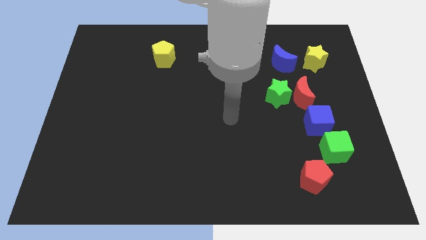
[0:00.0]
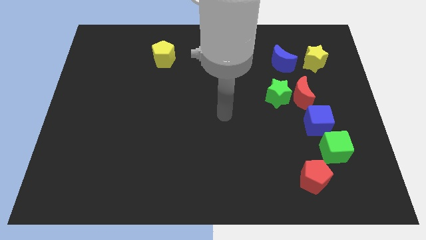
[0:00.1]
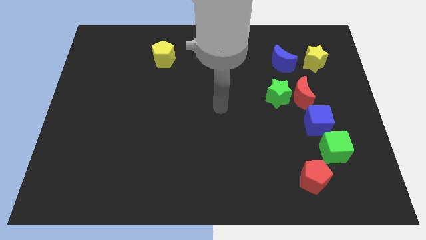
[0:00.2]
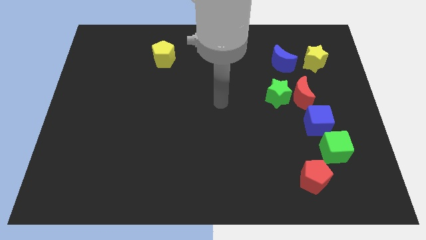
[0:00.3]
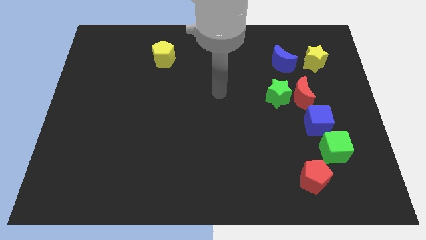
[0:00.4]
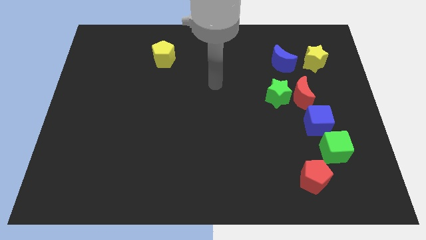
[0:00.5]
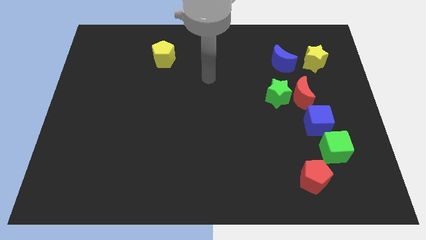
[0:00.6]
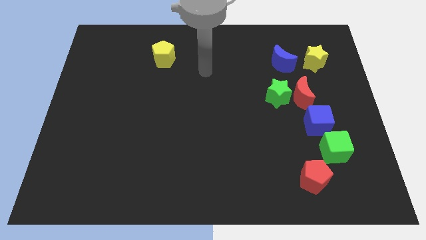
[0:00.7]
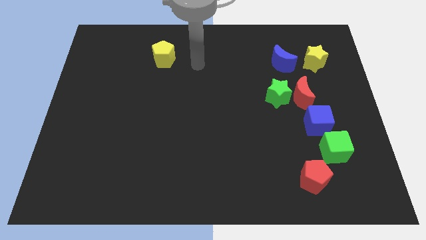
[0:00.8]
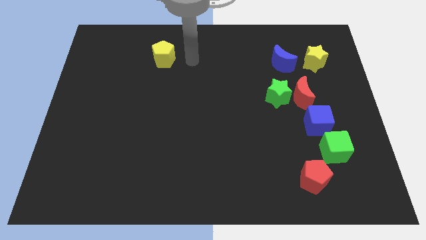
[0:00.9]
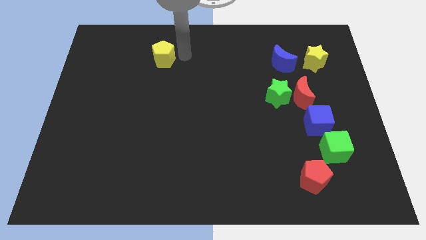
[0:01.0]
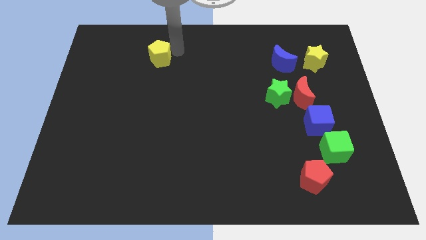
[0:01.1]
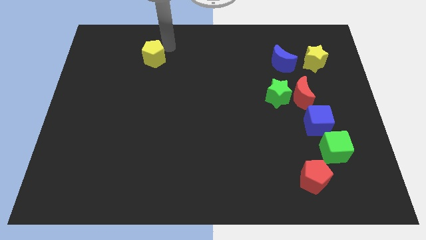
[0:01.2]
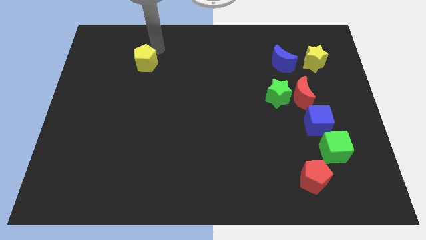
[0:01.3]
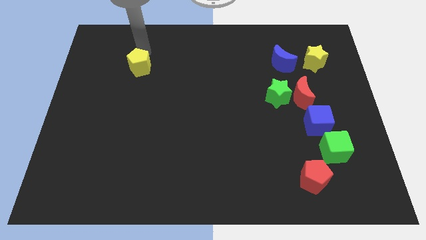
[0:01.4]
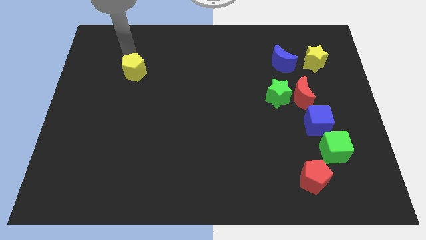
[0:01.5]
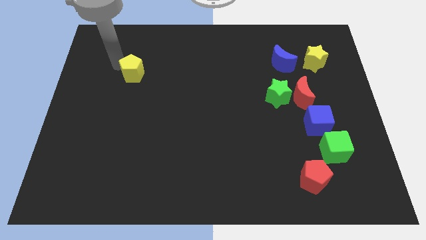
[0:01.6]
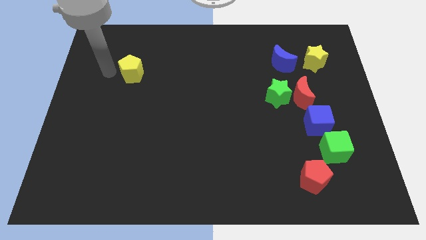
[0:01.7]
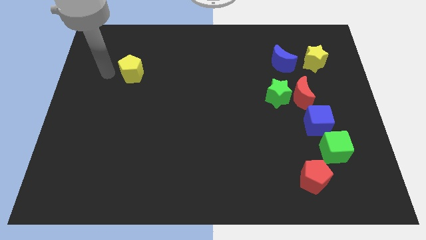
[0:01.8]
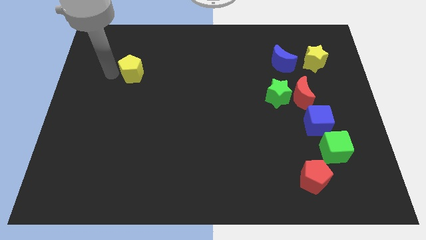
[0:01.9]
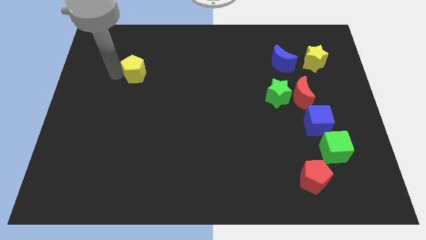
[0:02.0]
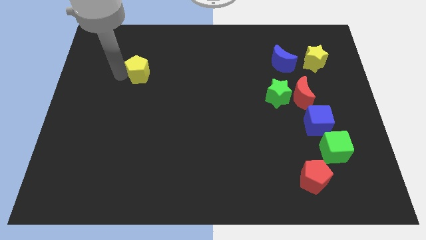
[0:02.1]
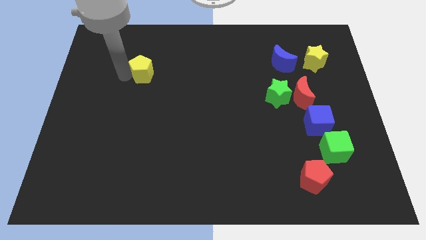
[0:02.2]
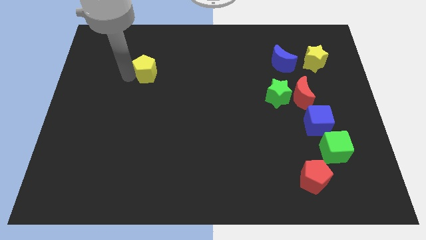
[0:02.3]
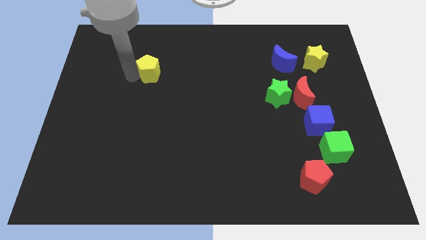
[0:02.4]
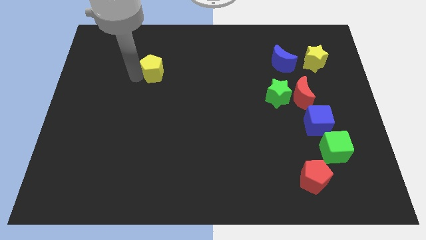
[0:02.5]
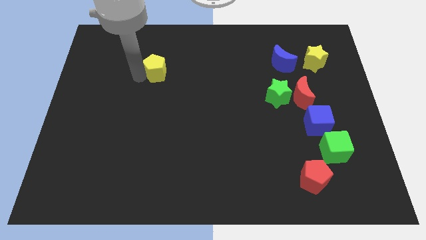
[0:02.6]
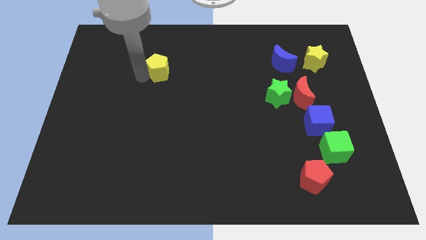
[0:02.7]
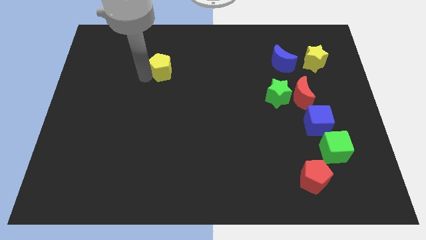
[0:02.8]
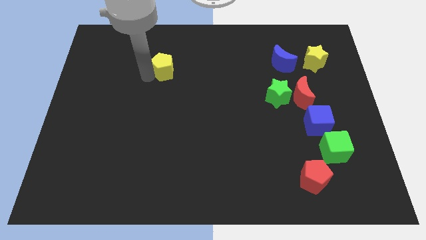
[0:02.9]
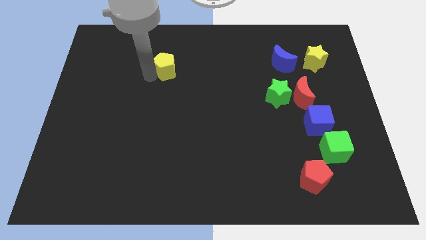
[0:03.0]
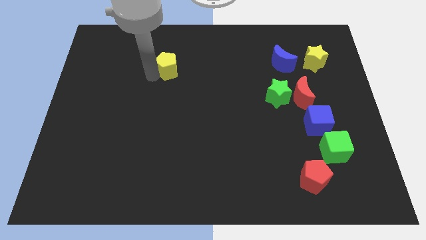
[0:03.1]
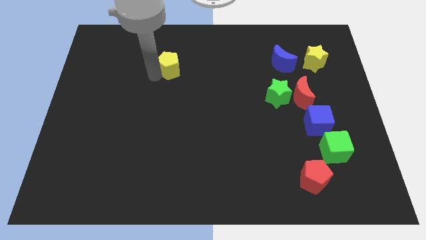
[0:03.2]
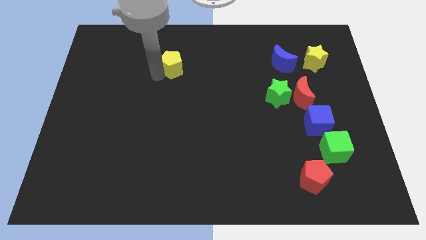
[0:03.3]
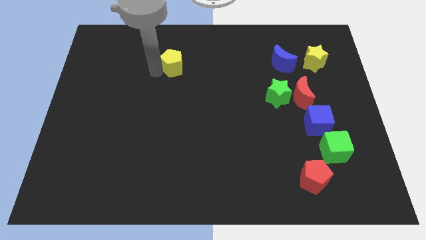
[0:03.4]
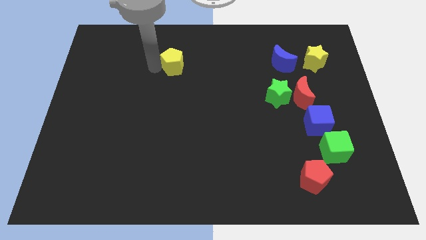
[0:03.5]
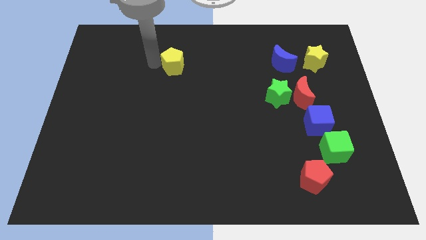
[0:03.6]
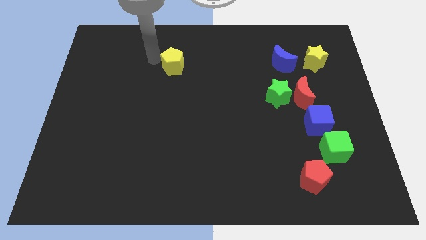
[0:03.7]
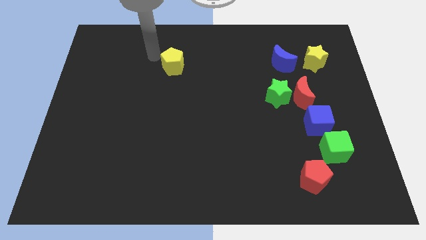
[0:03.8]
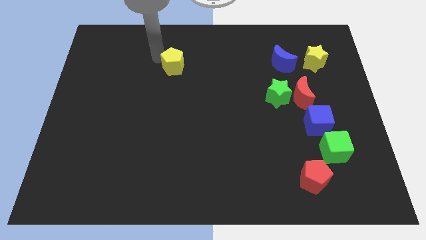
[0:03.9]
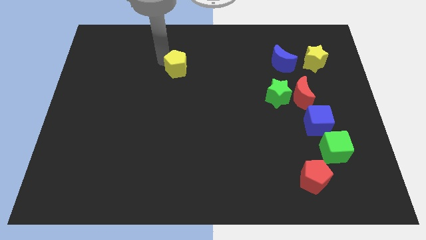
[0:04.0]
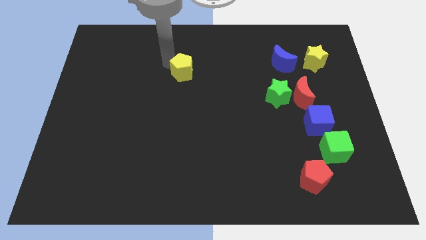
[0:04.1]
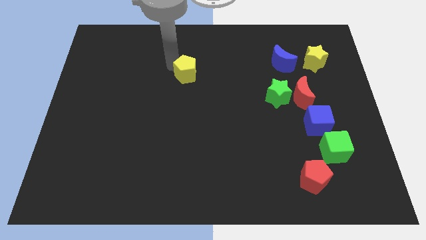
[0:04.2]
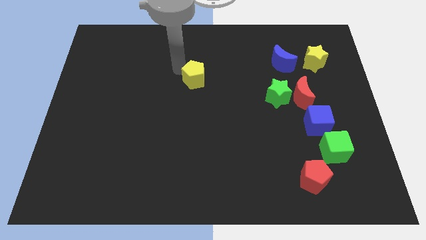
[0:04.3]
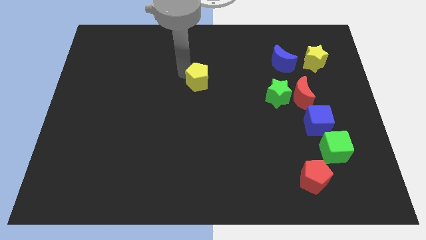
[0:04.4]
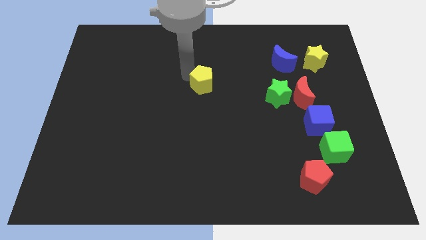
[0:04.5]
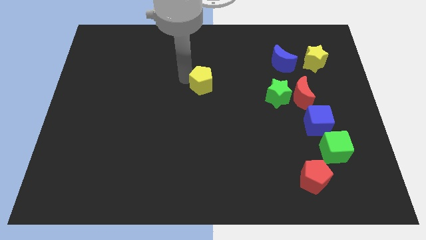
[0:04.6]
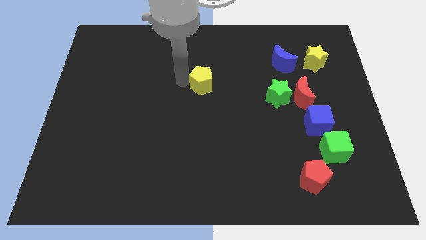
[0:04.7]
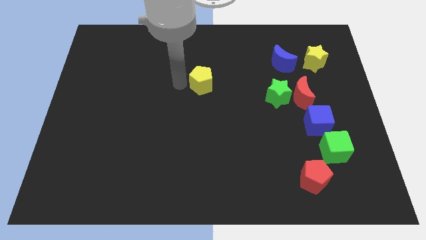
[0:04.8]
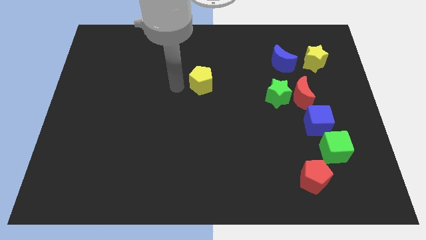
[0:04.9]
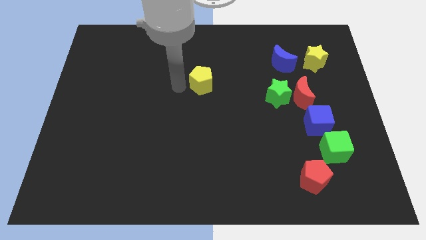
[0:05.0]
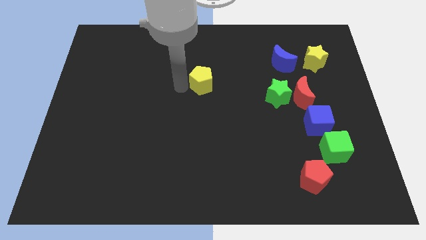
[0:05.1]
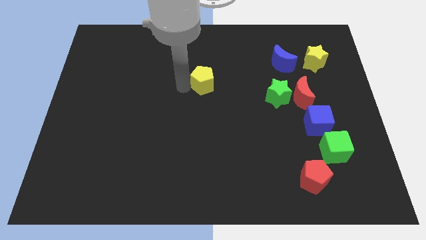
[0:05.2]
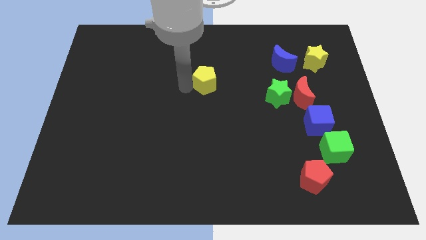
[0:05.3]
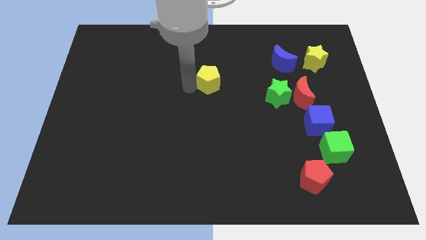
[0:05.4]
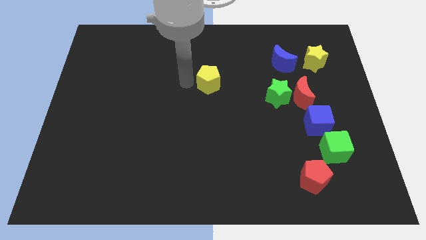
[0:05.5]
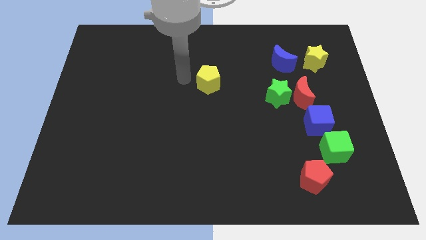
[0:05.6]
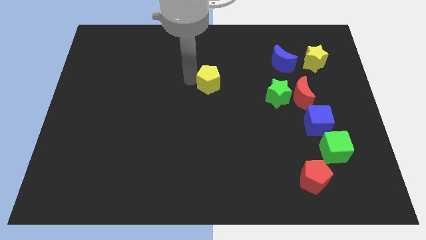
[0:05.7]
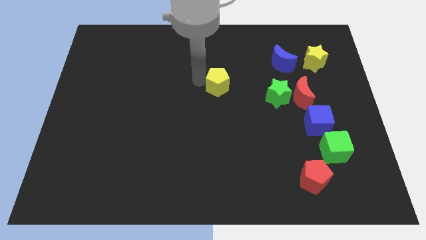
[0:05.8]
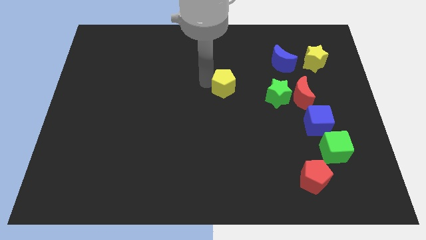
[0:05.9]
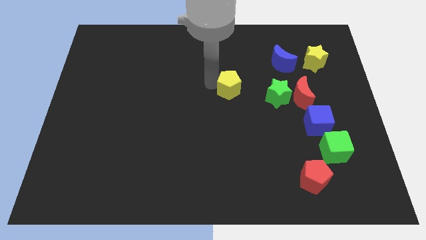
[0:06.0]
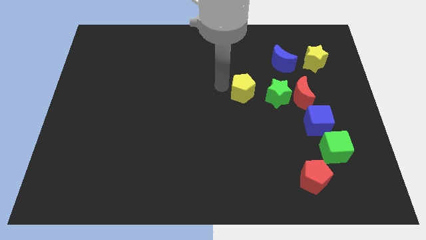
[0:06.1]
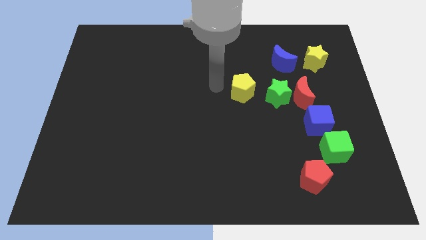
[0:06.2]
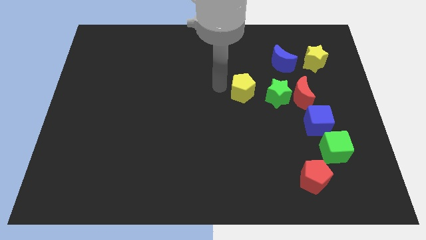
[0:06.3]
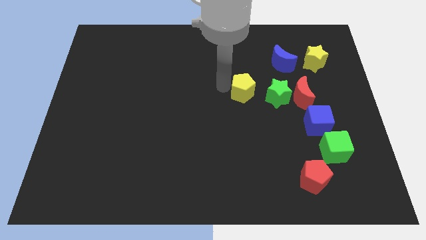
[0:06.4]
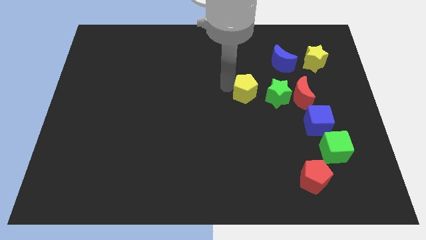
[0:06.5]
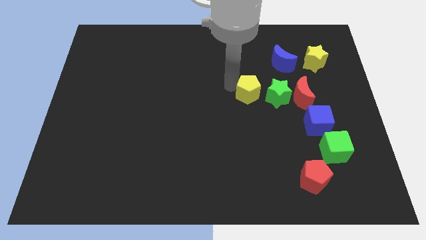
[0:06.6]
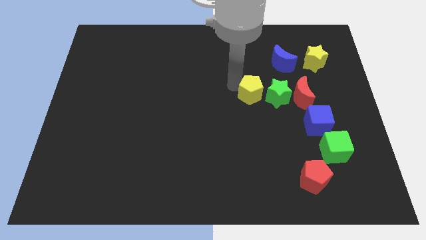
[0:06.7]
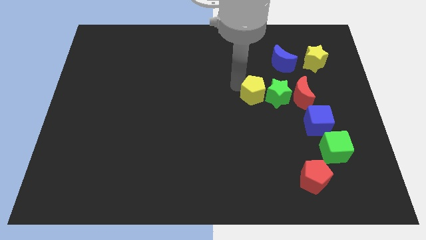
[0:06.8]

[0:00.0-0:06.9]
move the yellow pentagon towards the green star

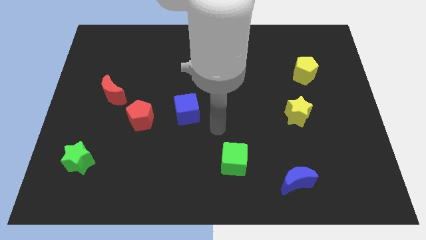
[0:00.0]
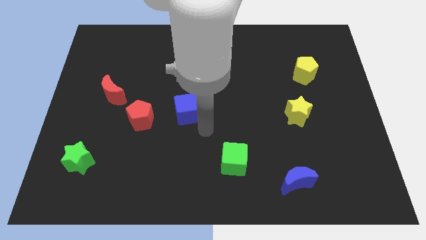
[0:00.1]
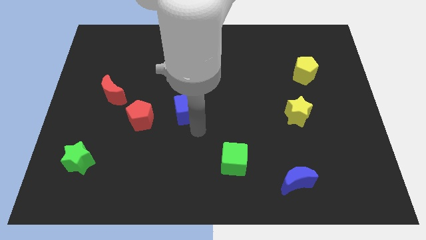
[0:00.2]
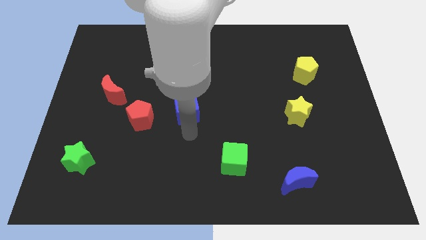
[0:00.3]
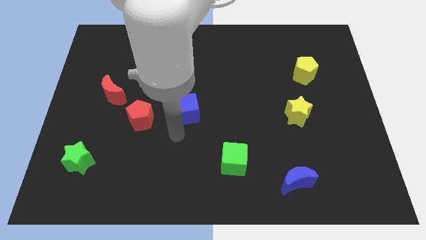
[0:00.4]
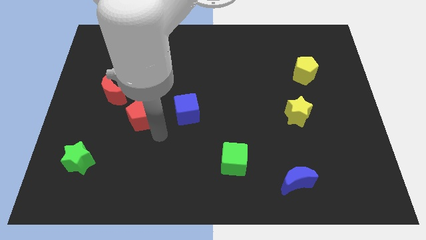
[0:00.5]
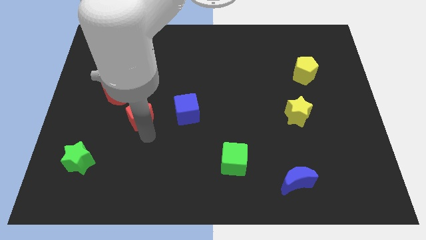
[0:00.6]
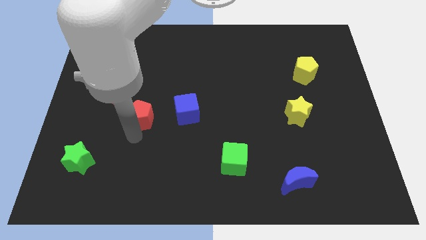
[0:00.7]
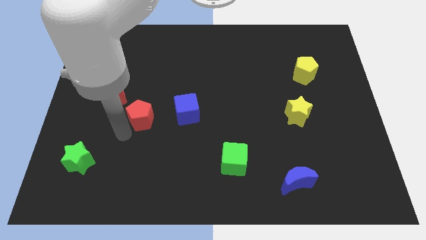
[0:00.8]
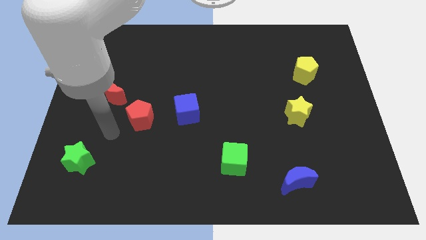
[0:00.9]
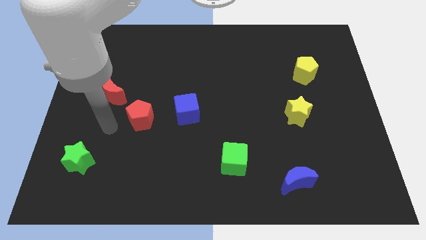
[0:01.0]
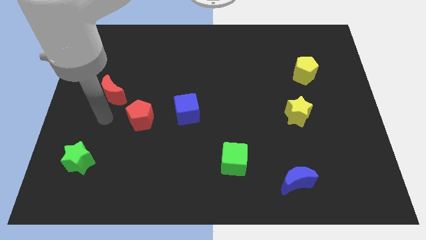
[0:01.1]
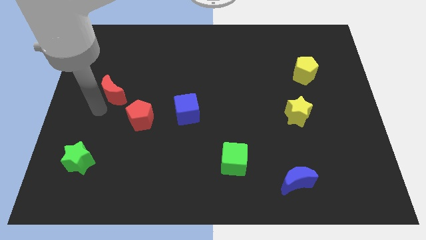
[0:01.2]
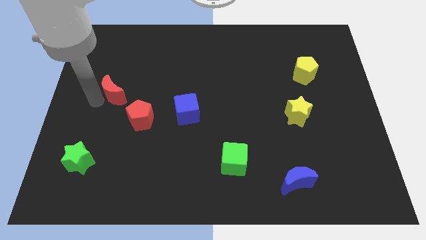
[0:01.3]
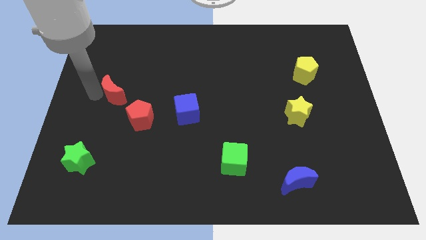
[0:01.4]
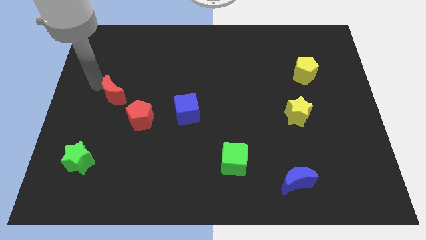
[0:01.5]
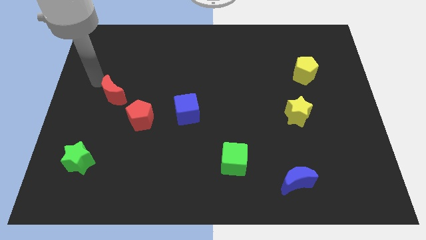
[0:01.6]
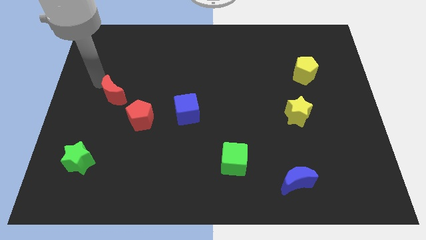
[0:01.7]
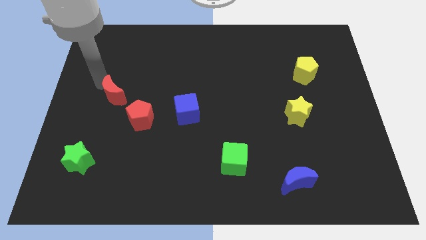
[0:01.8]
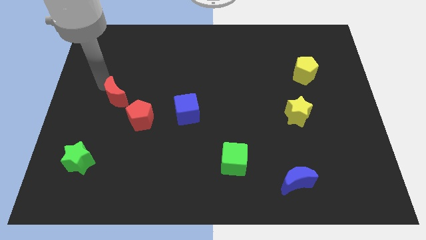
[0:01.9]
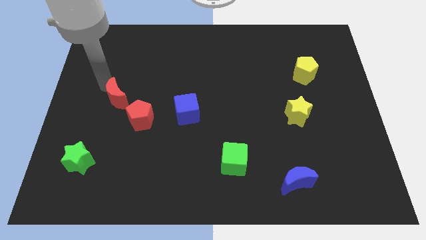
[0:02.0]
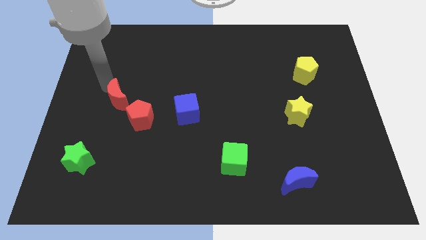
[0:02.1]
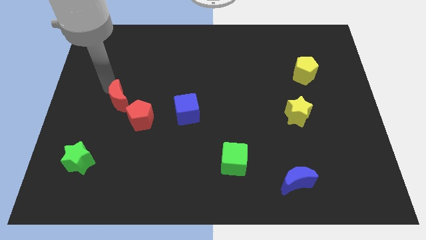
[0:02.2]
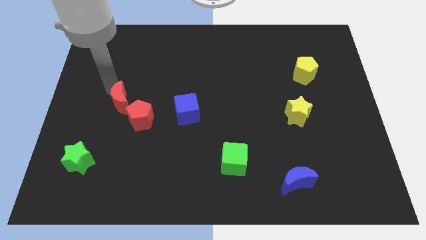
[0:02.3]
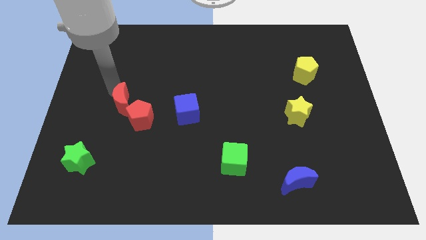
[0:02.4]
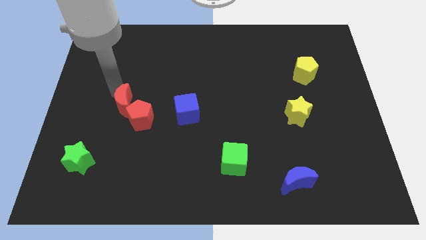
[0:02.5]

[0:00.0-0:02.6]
push the red moon towards the red pentagon
